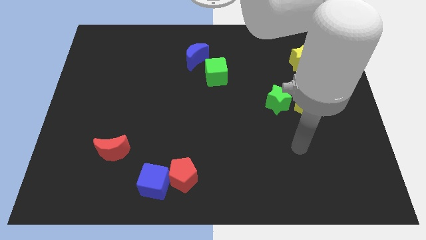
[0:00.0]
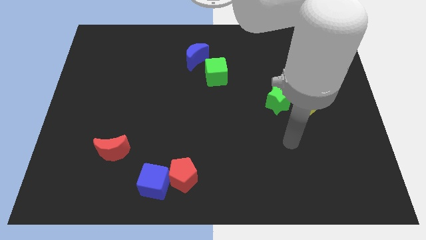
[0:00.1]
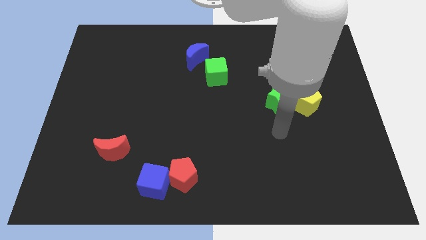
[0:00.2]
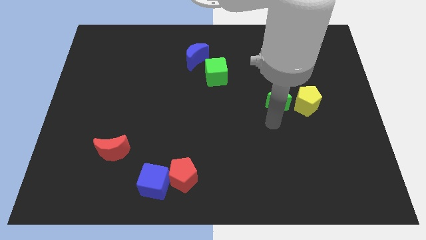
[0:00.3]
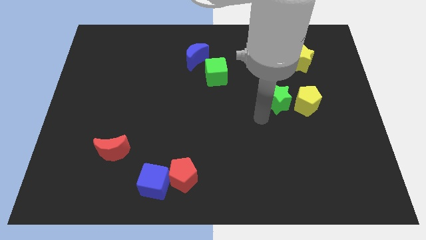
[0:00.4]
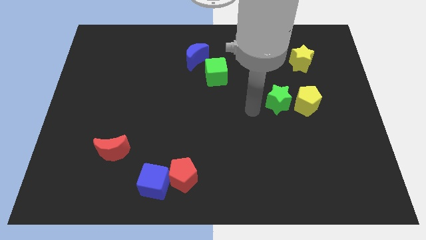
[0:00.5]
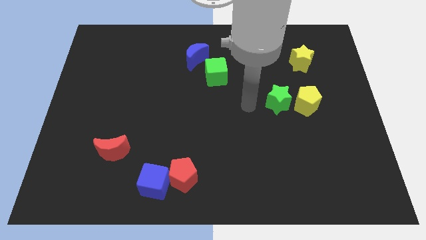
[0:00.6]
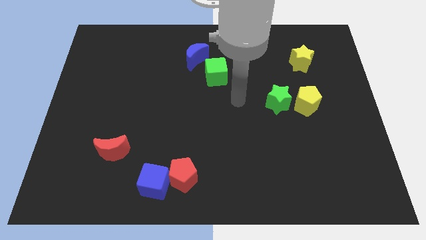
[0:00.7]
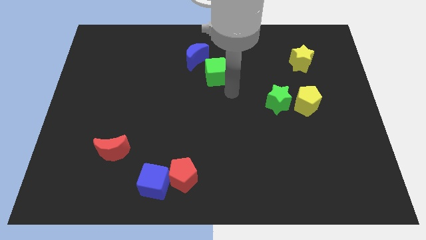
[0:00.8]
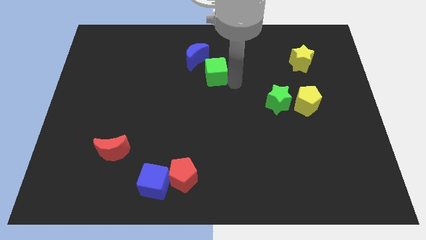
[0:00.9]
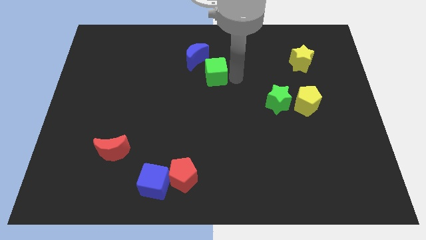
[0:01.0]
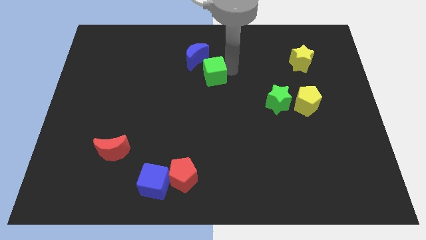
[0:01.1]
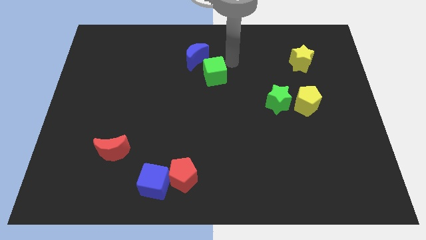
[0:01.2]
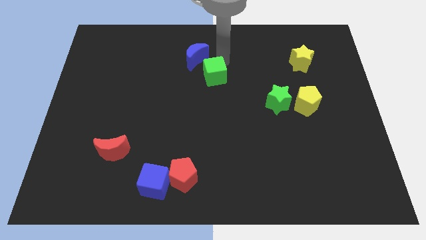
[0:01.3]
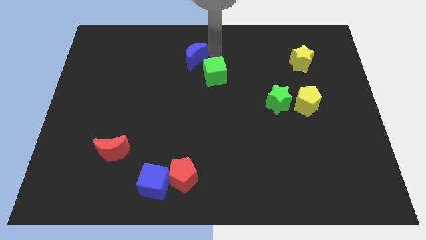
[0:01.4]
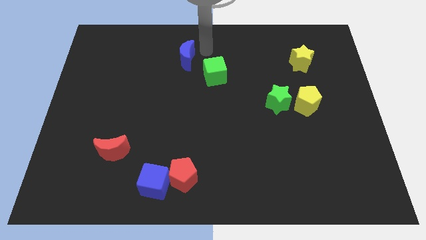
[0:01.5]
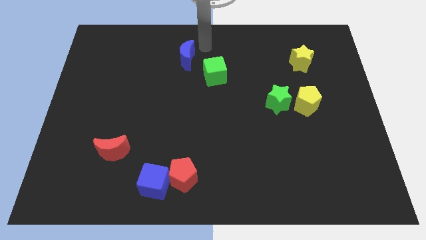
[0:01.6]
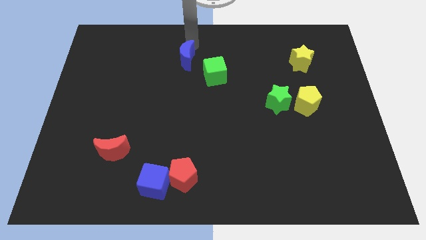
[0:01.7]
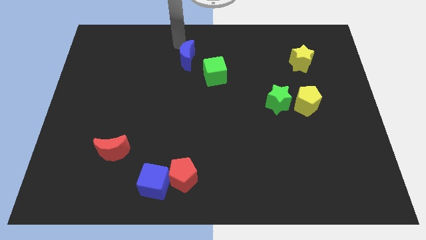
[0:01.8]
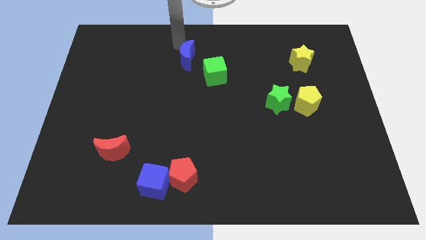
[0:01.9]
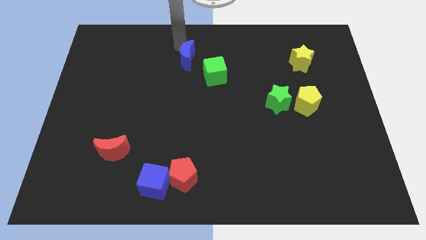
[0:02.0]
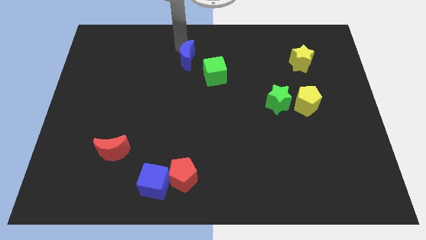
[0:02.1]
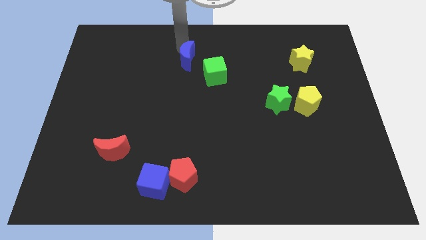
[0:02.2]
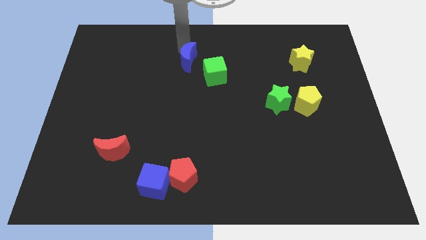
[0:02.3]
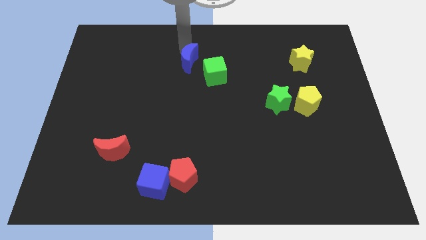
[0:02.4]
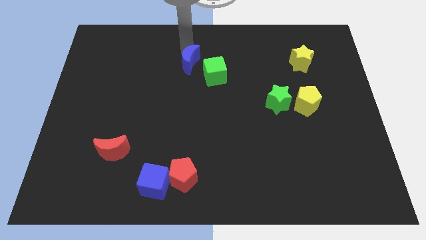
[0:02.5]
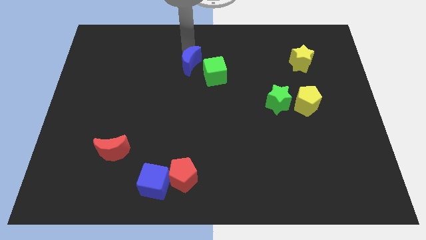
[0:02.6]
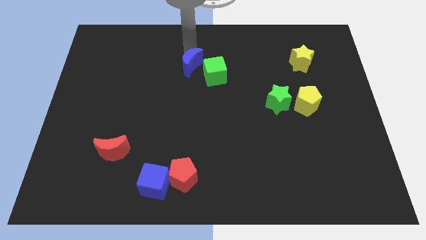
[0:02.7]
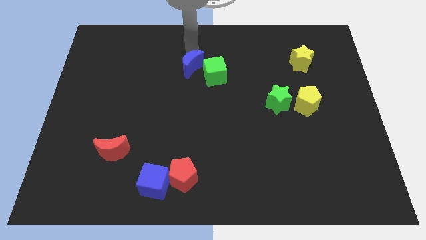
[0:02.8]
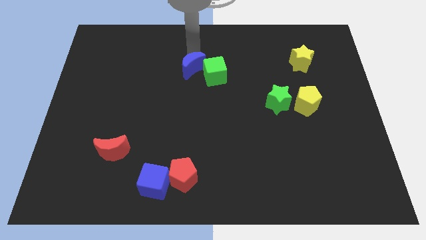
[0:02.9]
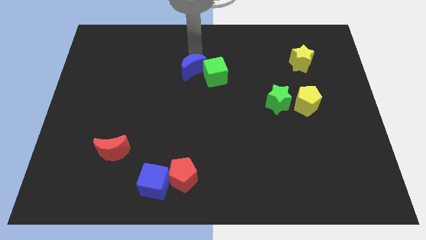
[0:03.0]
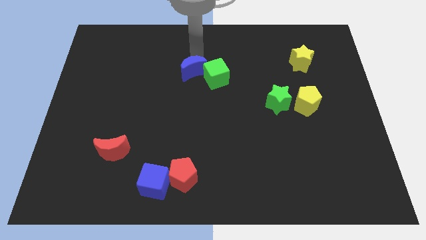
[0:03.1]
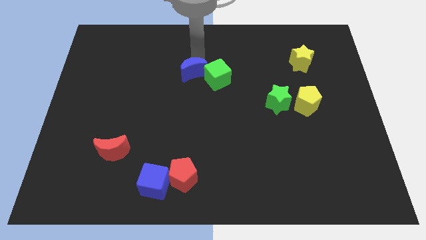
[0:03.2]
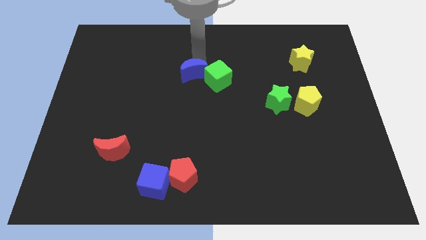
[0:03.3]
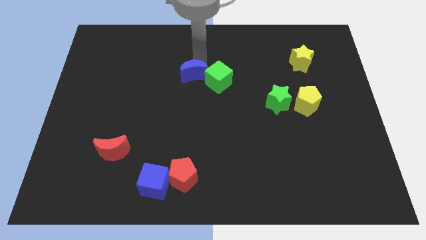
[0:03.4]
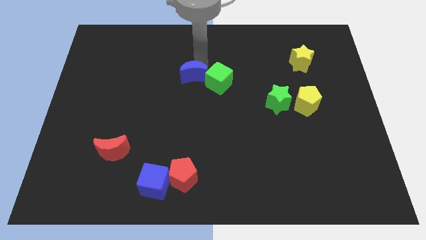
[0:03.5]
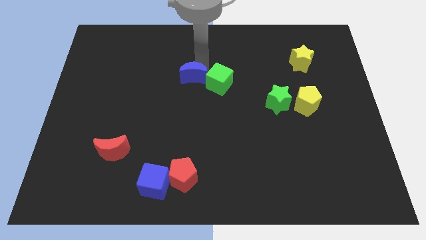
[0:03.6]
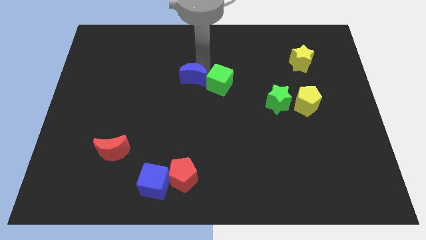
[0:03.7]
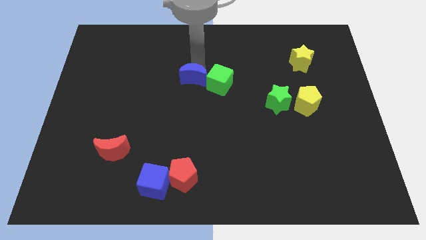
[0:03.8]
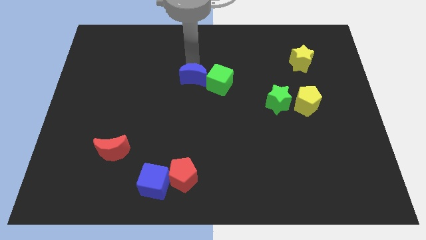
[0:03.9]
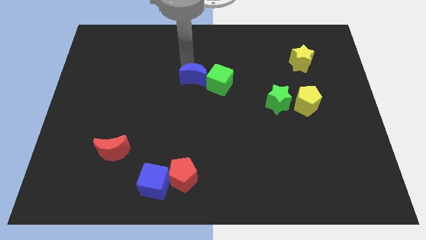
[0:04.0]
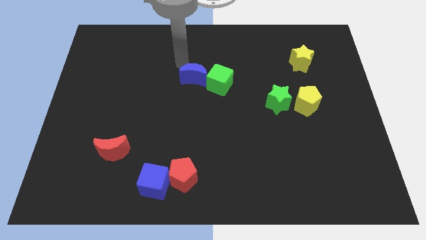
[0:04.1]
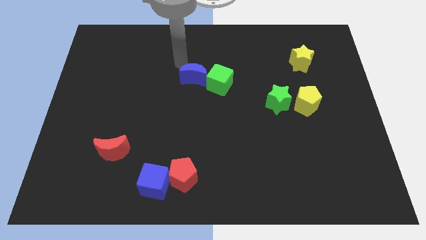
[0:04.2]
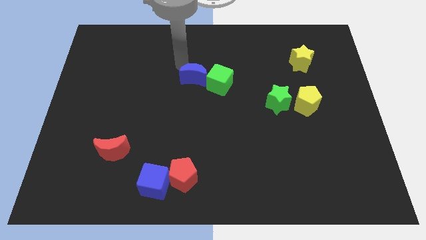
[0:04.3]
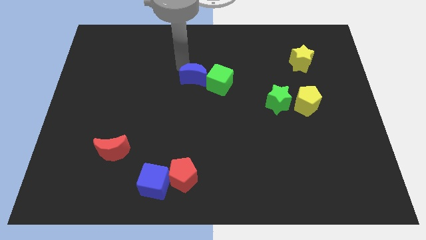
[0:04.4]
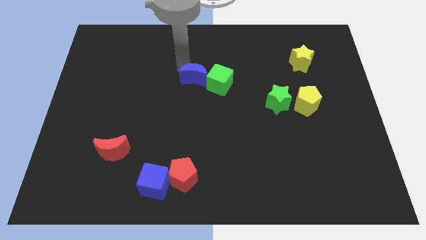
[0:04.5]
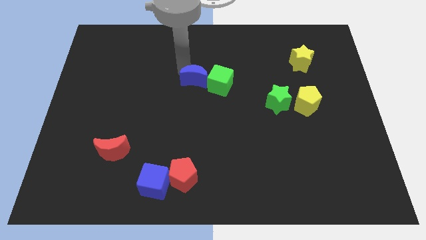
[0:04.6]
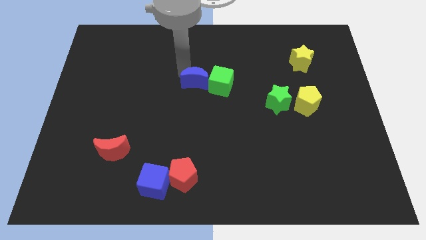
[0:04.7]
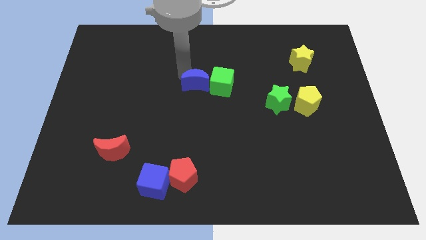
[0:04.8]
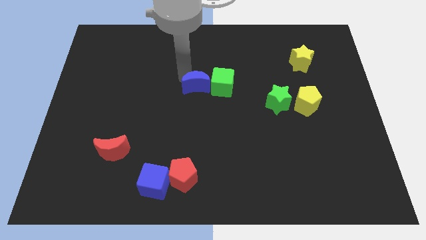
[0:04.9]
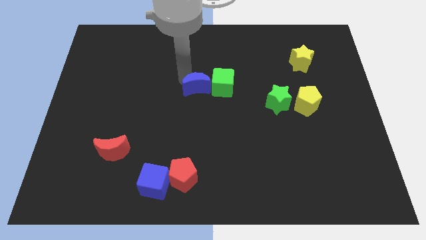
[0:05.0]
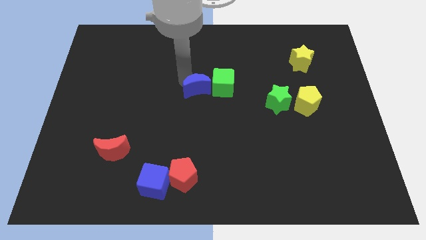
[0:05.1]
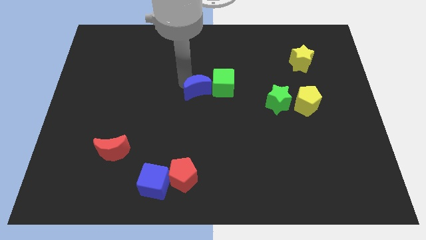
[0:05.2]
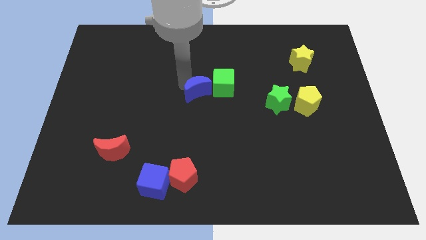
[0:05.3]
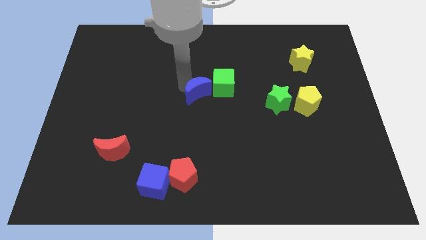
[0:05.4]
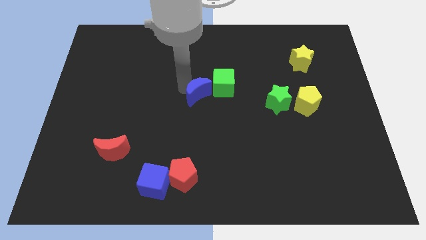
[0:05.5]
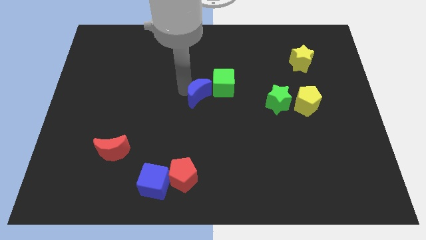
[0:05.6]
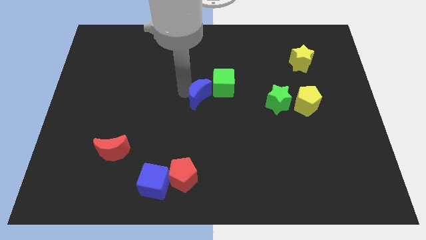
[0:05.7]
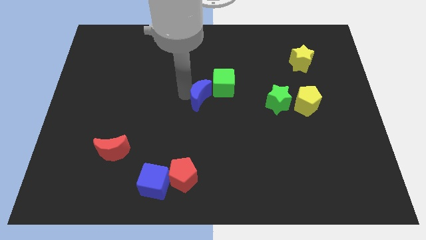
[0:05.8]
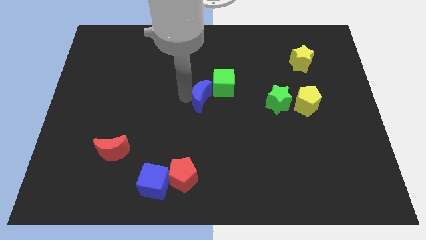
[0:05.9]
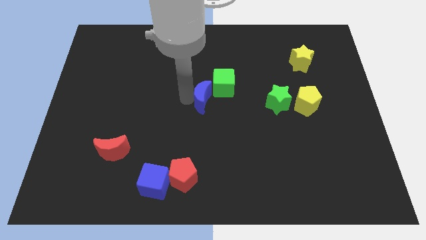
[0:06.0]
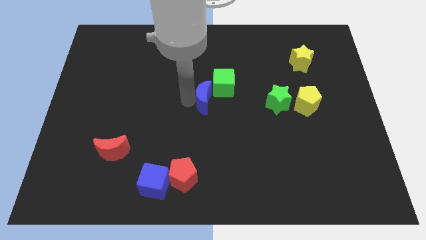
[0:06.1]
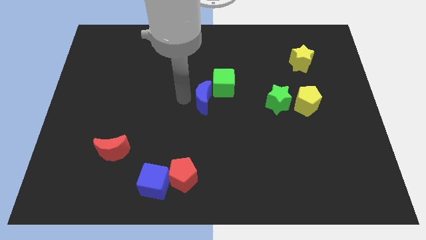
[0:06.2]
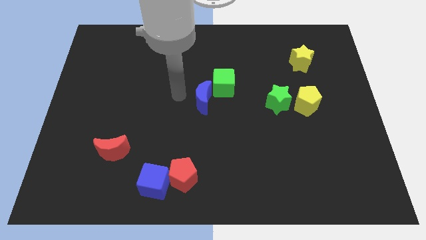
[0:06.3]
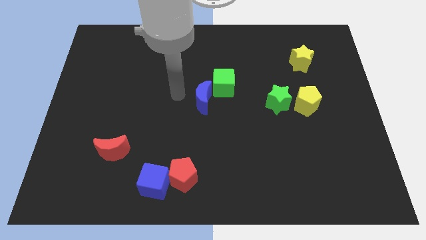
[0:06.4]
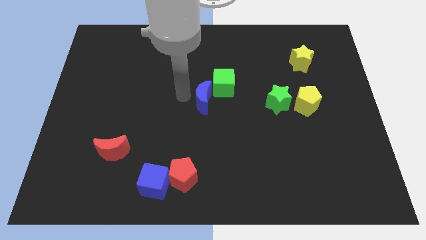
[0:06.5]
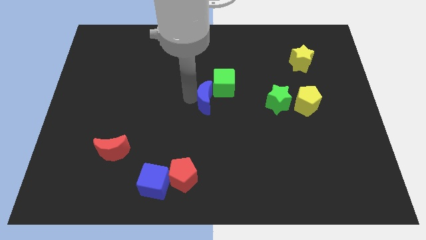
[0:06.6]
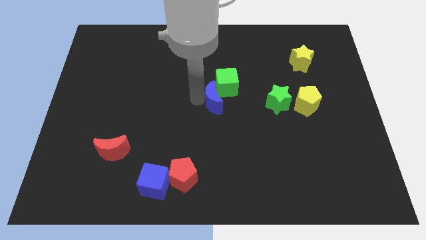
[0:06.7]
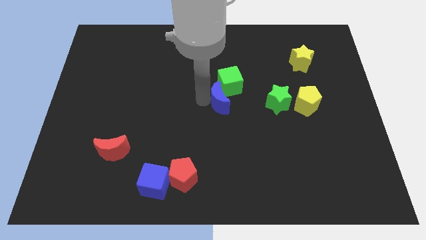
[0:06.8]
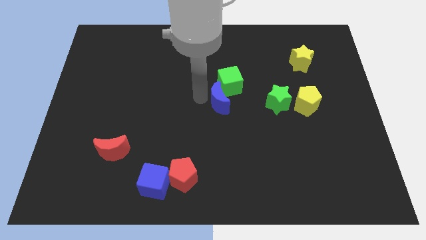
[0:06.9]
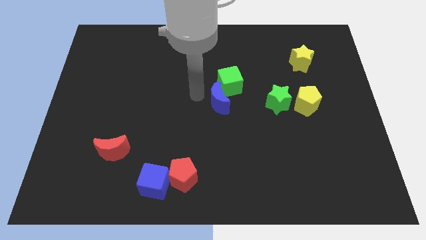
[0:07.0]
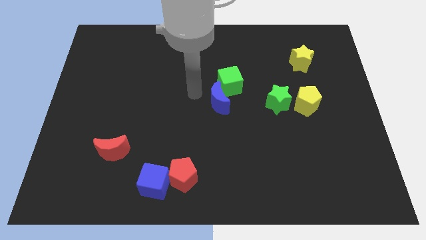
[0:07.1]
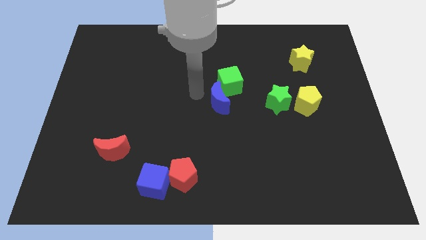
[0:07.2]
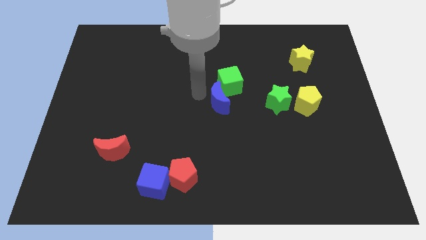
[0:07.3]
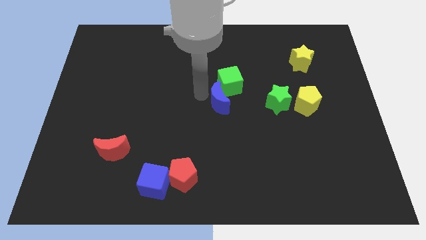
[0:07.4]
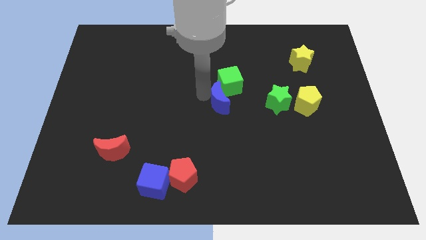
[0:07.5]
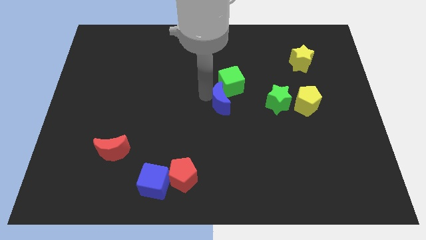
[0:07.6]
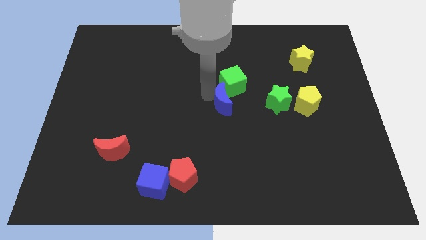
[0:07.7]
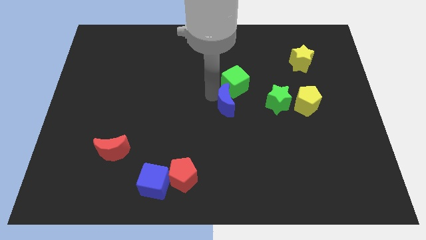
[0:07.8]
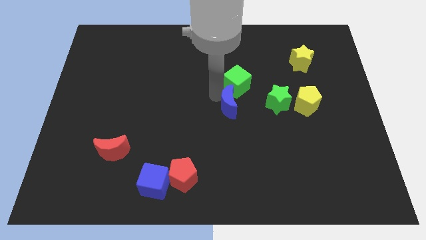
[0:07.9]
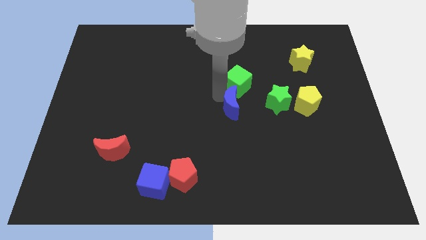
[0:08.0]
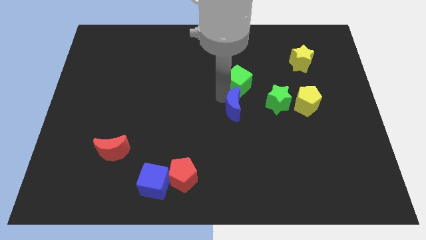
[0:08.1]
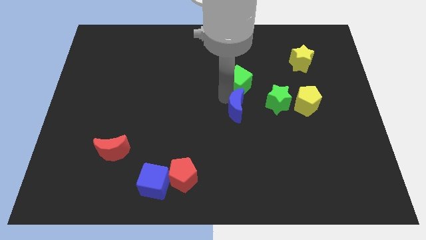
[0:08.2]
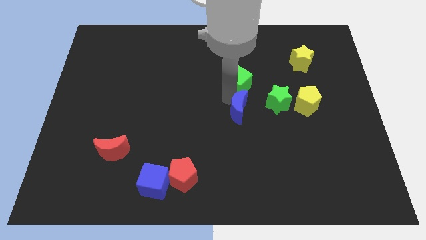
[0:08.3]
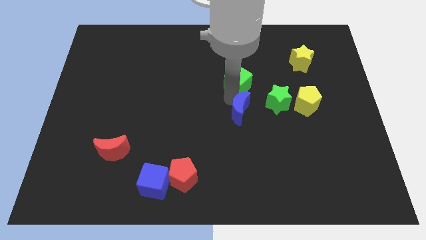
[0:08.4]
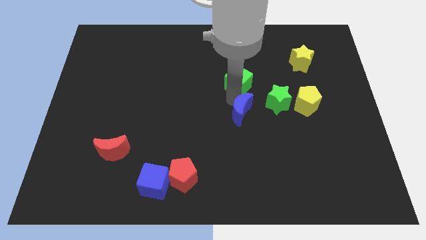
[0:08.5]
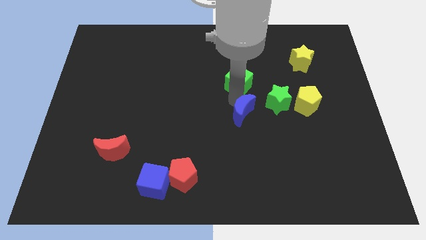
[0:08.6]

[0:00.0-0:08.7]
slide the blue moon downwards and then right
